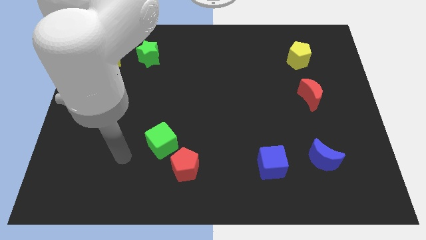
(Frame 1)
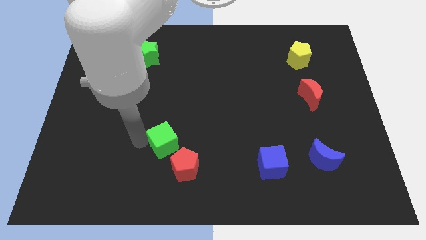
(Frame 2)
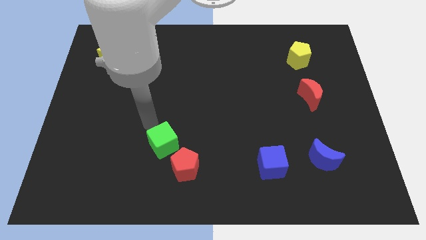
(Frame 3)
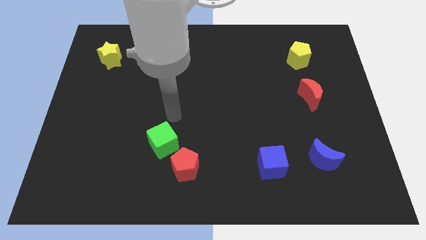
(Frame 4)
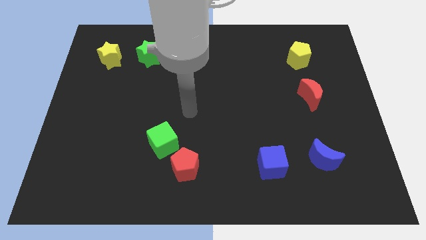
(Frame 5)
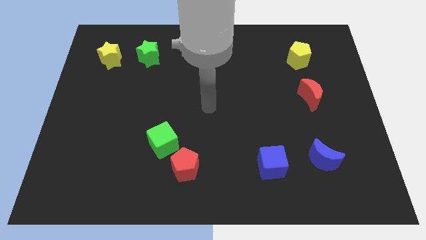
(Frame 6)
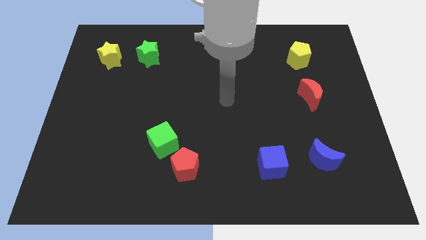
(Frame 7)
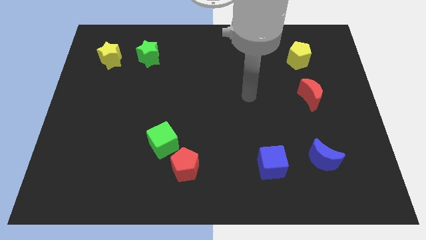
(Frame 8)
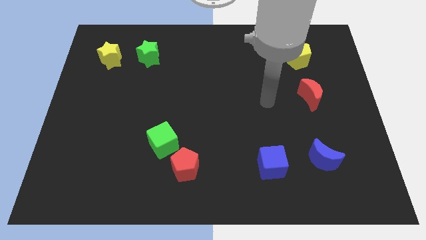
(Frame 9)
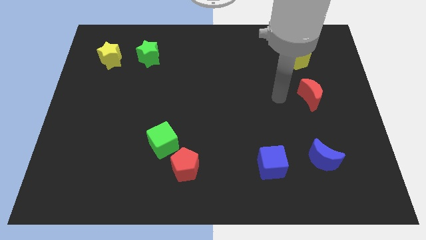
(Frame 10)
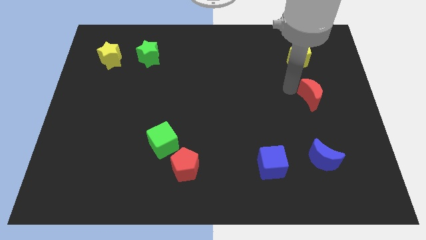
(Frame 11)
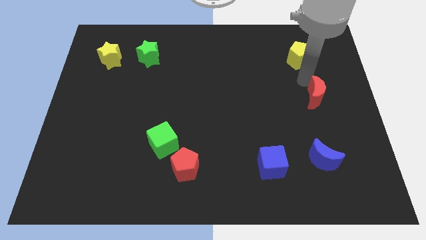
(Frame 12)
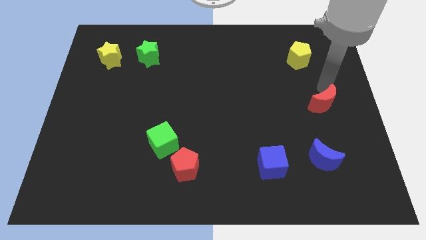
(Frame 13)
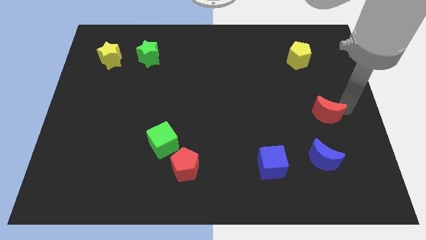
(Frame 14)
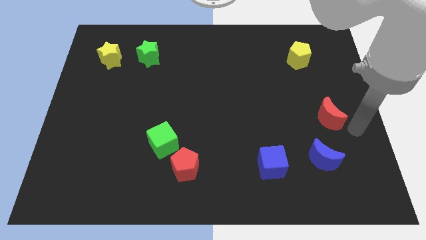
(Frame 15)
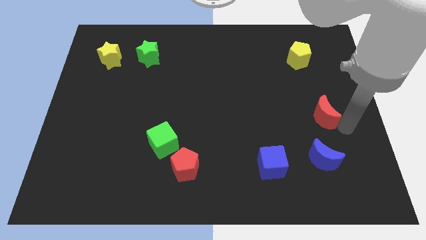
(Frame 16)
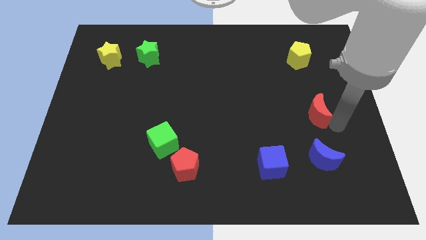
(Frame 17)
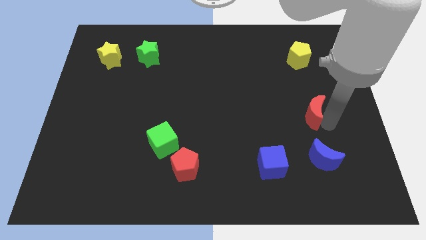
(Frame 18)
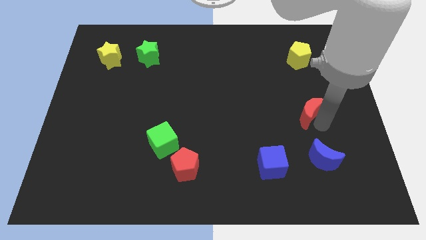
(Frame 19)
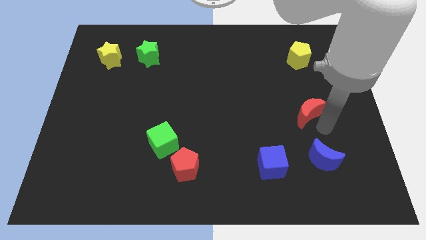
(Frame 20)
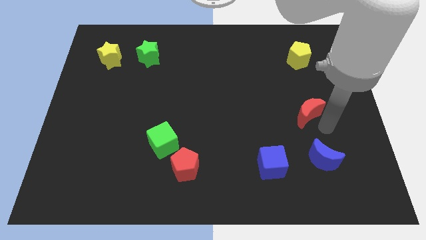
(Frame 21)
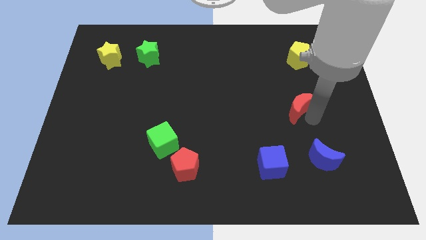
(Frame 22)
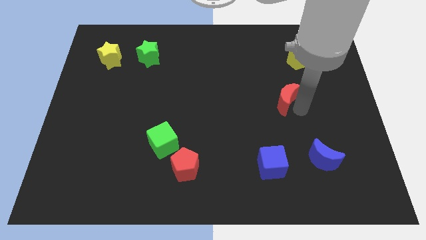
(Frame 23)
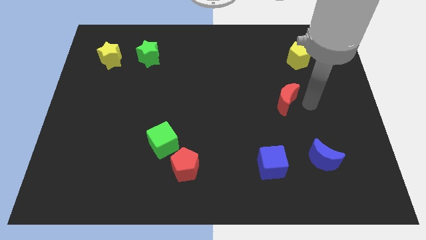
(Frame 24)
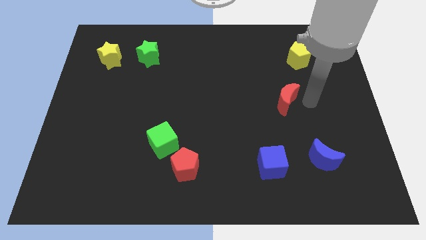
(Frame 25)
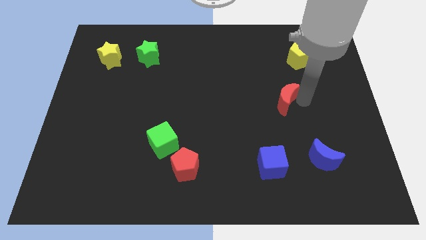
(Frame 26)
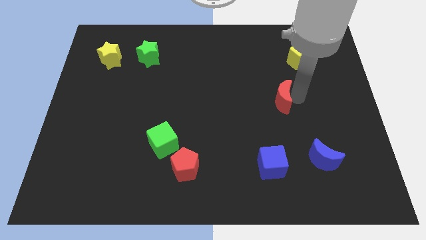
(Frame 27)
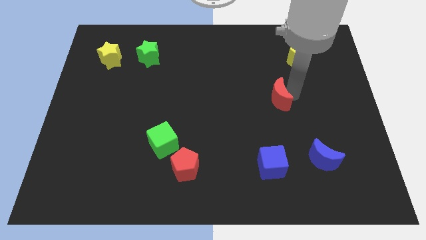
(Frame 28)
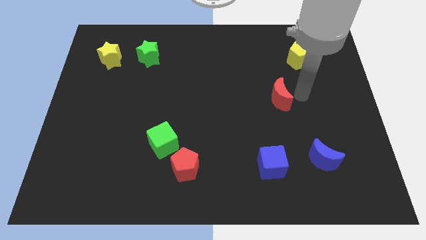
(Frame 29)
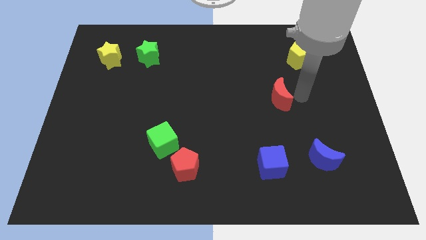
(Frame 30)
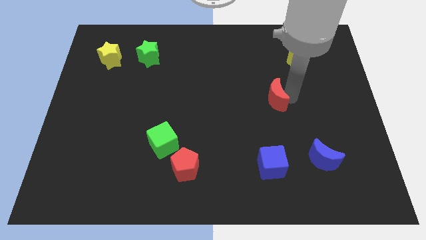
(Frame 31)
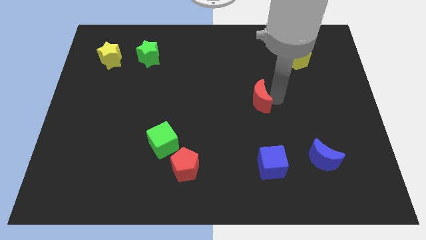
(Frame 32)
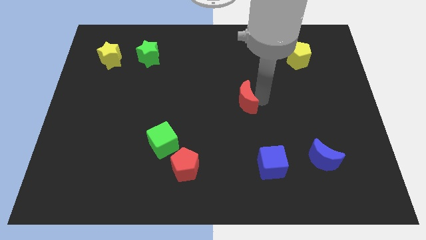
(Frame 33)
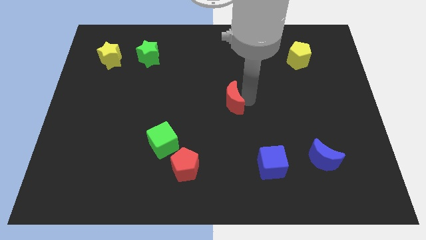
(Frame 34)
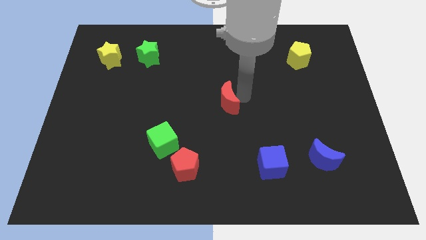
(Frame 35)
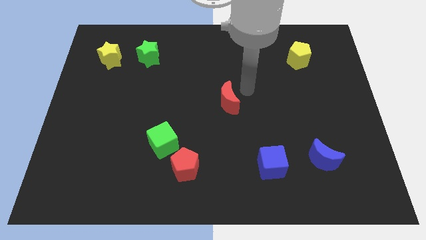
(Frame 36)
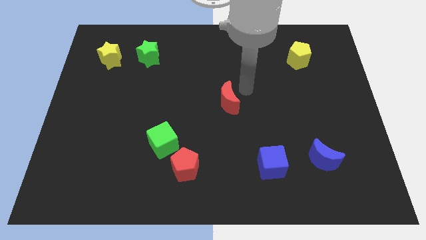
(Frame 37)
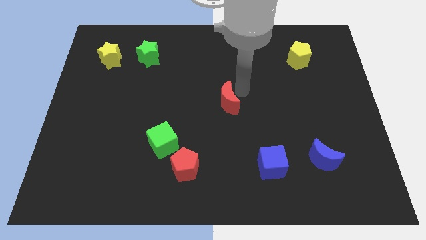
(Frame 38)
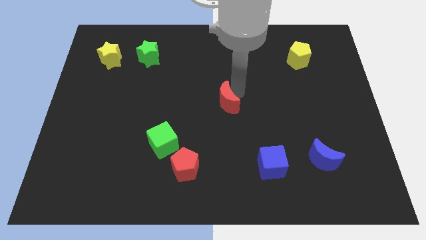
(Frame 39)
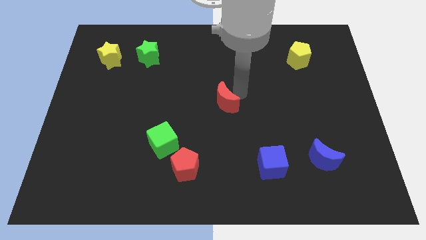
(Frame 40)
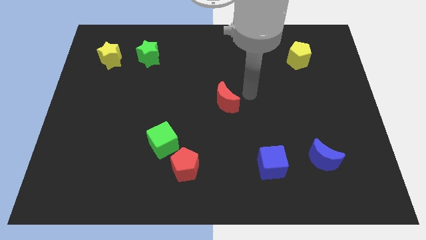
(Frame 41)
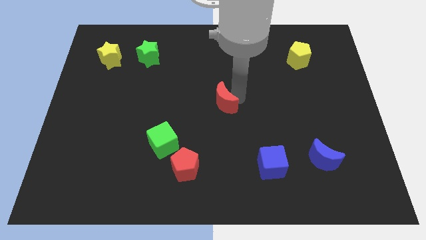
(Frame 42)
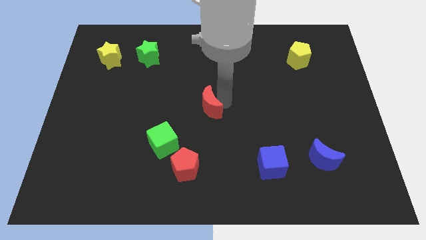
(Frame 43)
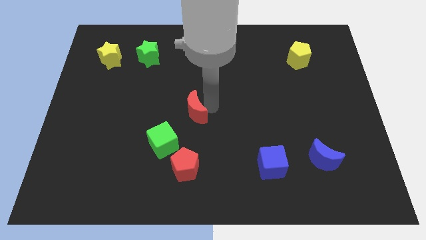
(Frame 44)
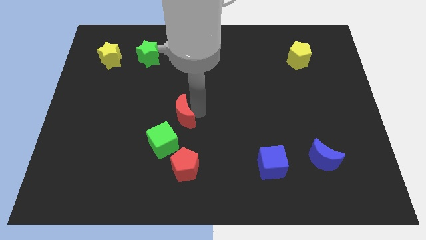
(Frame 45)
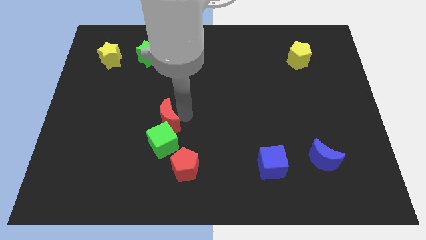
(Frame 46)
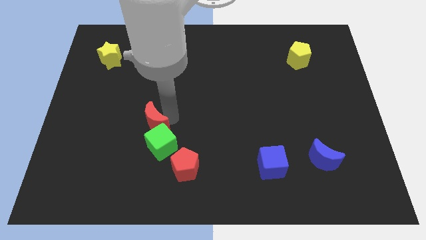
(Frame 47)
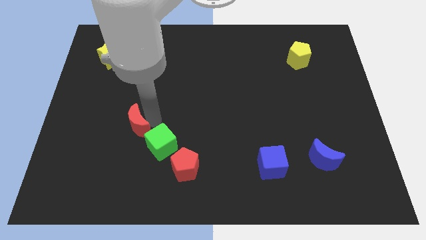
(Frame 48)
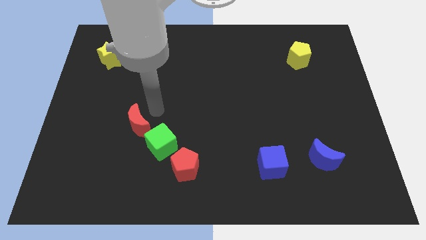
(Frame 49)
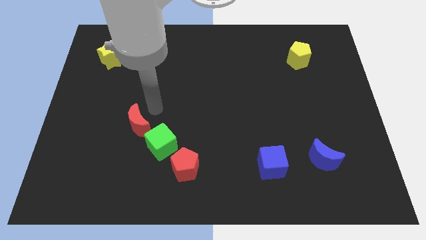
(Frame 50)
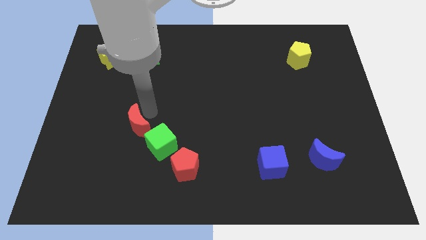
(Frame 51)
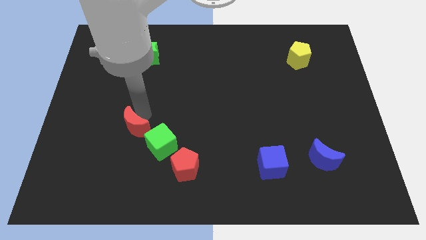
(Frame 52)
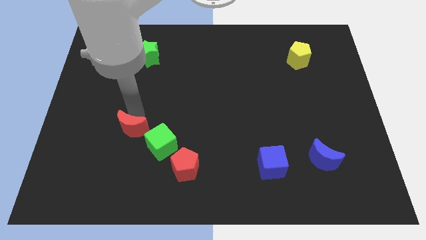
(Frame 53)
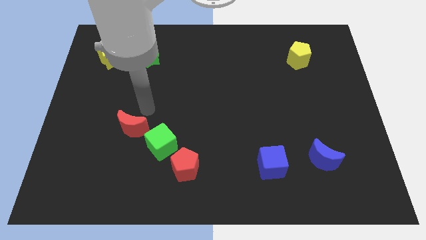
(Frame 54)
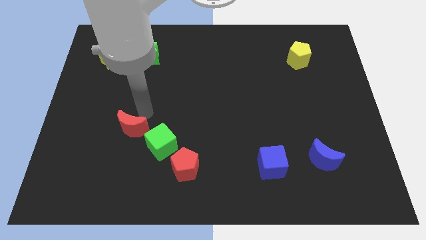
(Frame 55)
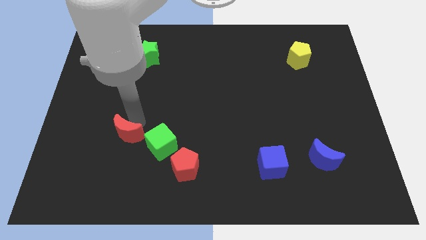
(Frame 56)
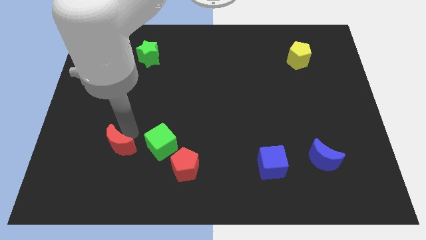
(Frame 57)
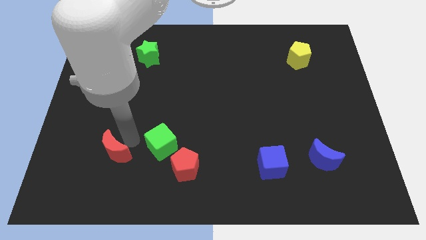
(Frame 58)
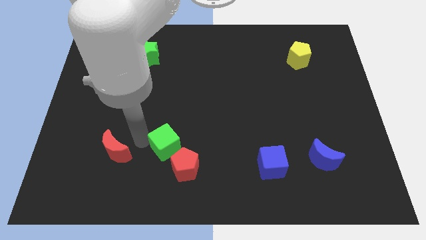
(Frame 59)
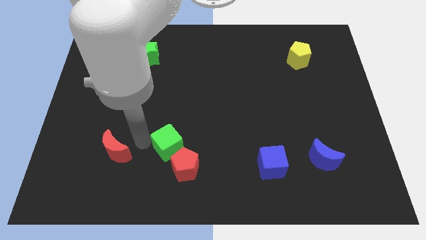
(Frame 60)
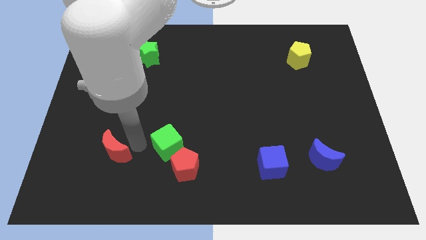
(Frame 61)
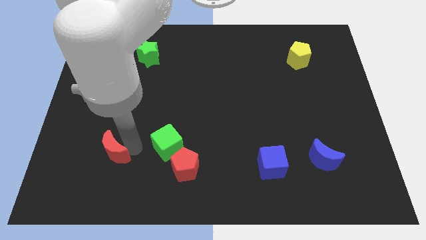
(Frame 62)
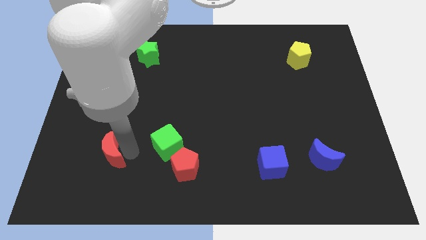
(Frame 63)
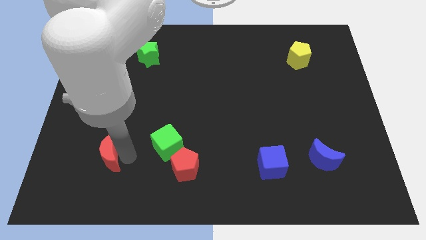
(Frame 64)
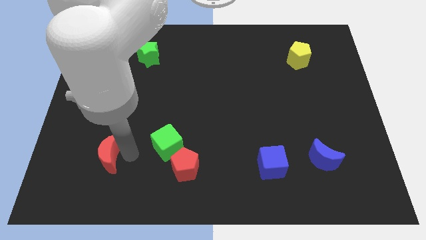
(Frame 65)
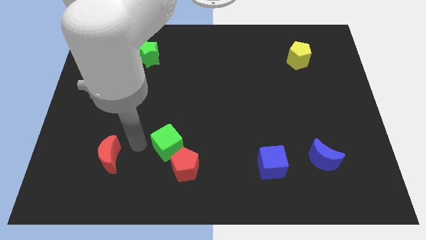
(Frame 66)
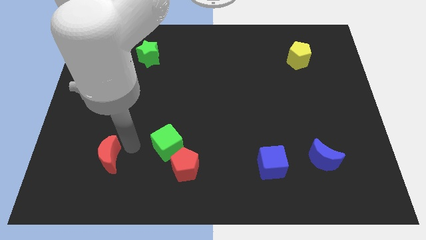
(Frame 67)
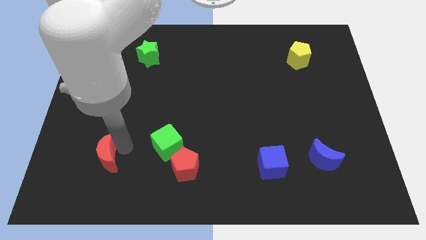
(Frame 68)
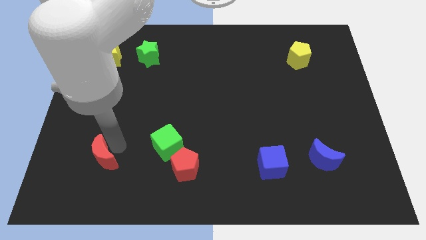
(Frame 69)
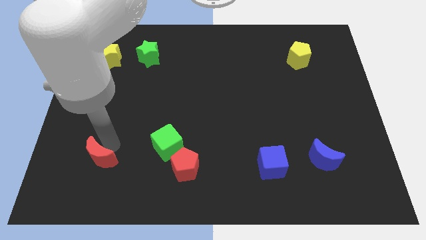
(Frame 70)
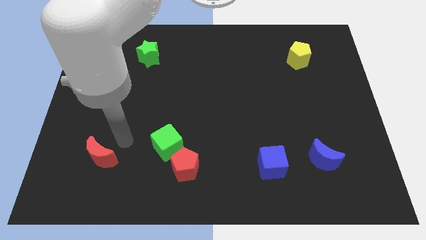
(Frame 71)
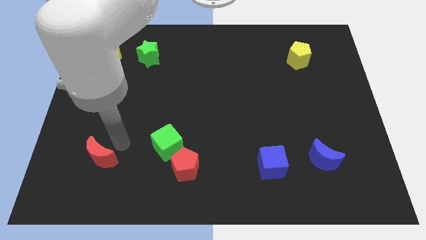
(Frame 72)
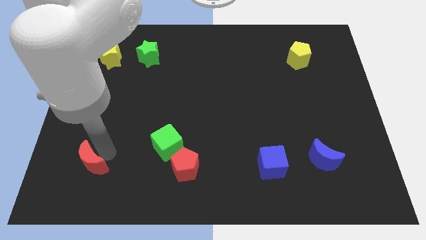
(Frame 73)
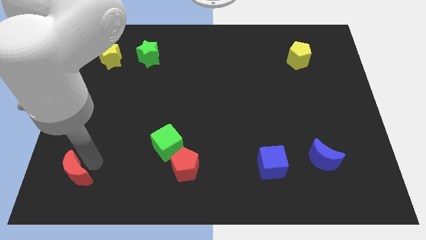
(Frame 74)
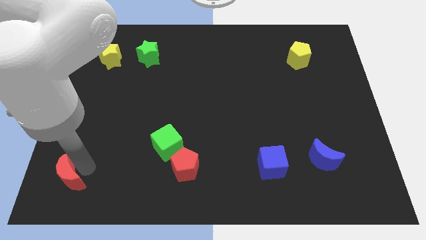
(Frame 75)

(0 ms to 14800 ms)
slide the red moon to the bottom left corner
